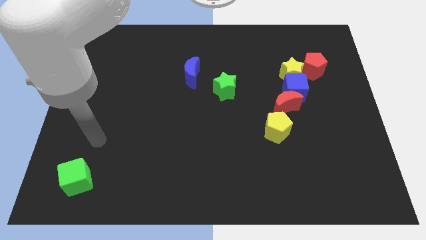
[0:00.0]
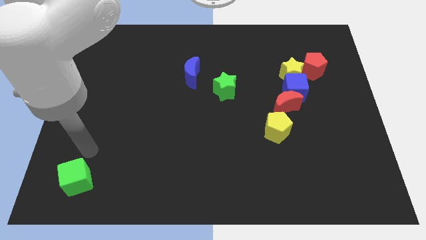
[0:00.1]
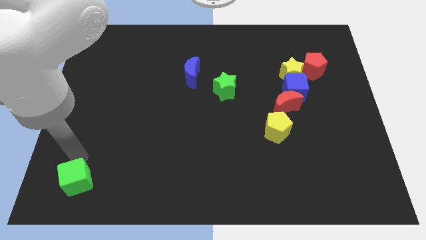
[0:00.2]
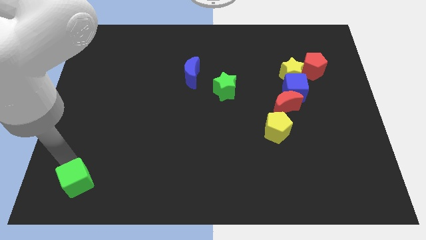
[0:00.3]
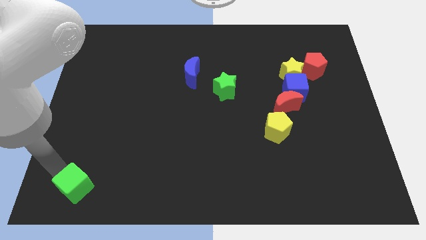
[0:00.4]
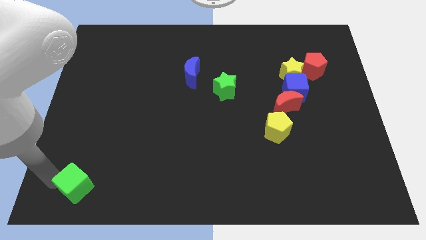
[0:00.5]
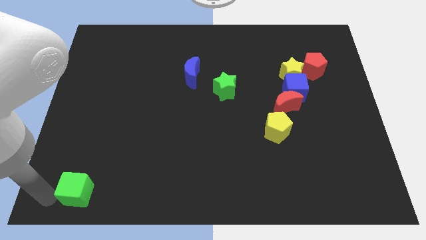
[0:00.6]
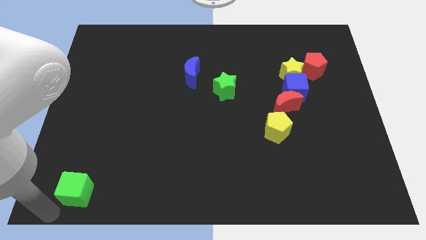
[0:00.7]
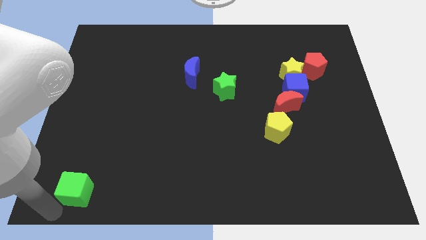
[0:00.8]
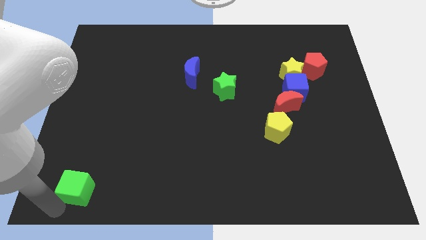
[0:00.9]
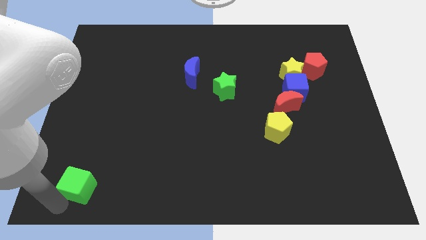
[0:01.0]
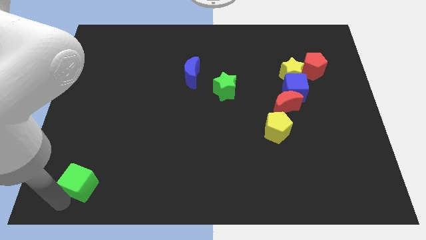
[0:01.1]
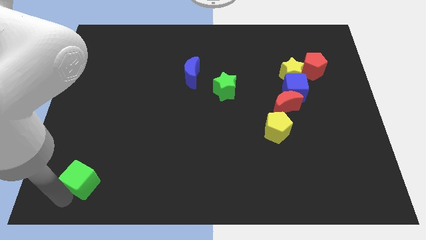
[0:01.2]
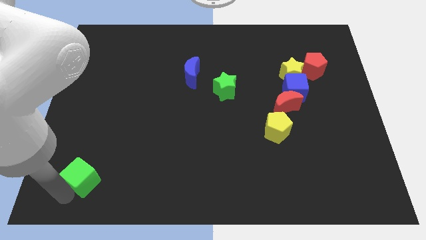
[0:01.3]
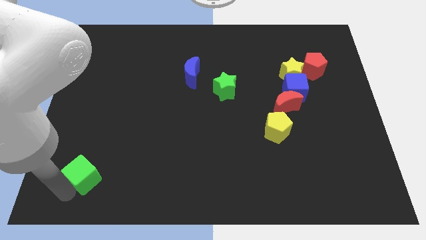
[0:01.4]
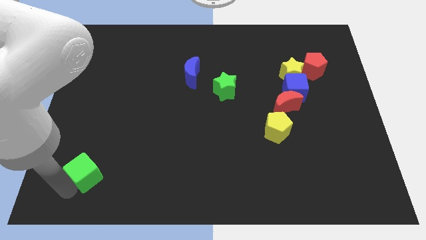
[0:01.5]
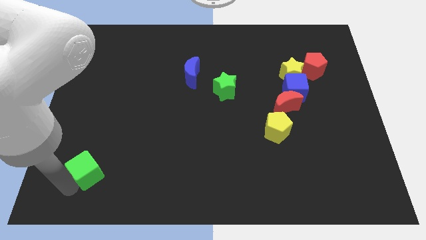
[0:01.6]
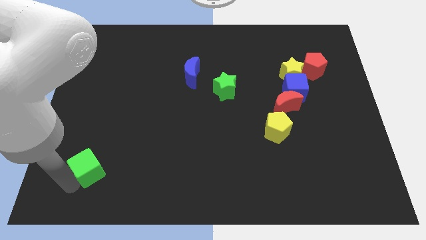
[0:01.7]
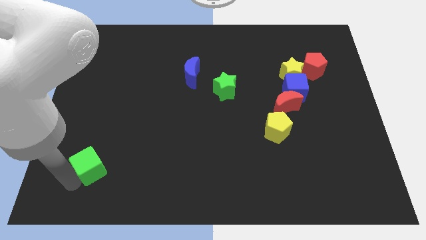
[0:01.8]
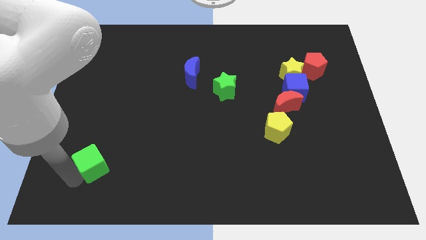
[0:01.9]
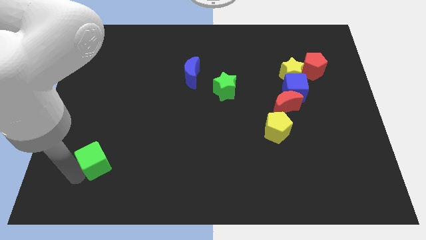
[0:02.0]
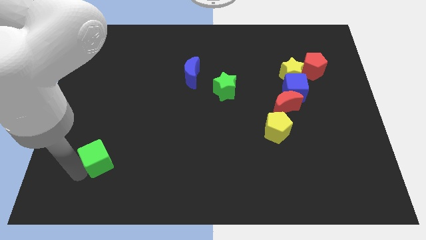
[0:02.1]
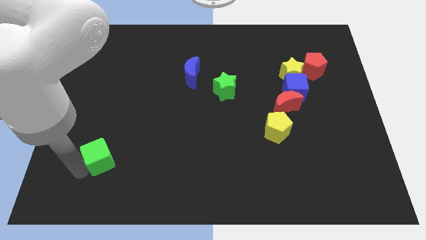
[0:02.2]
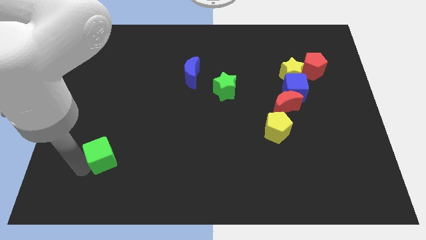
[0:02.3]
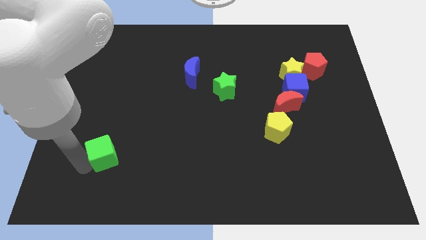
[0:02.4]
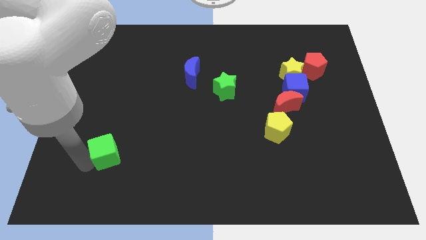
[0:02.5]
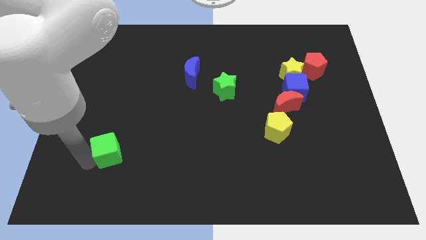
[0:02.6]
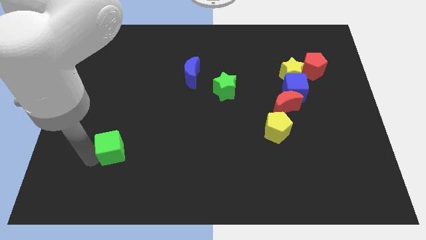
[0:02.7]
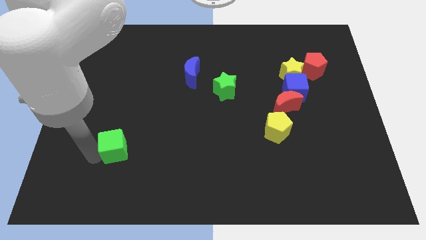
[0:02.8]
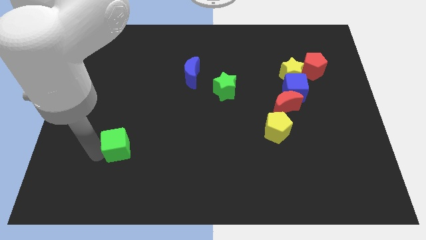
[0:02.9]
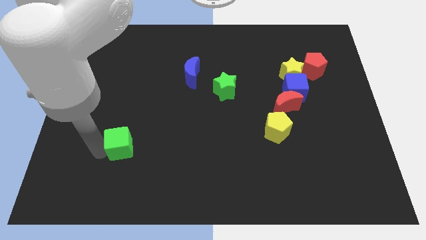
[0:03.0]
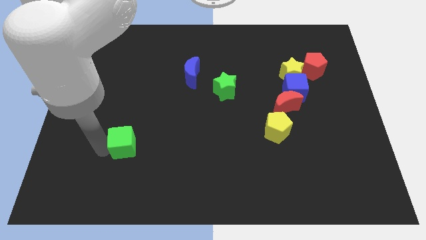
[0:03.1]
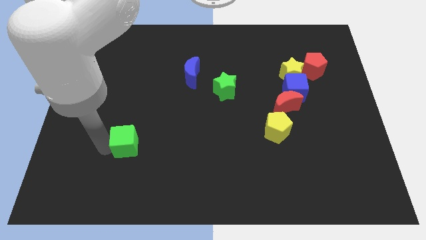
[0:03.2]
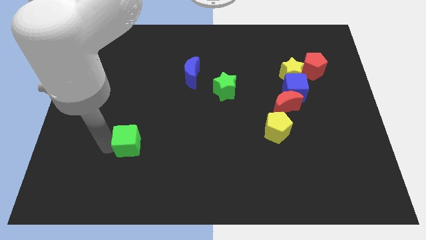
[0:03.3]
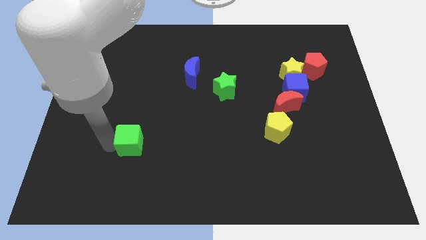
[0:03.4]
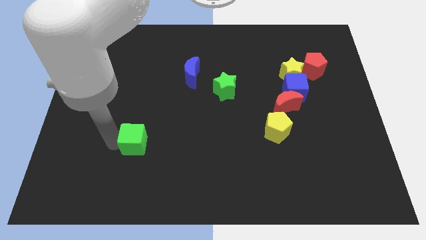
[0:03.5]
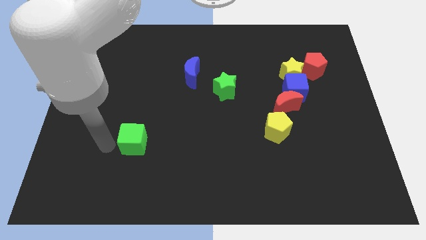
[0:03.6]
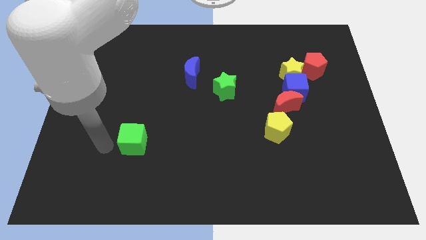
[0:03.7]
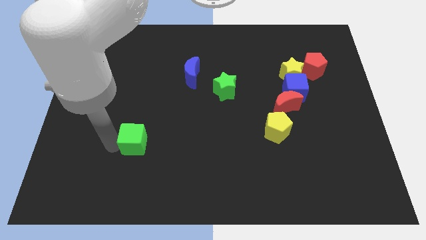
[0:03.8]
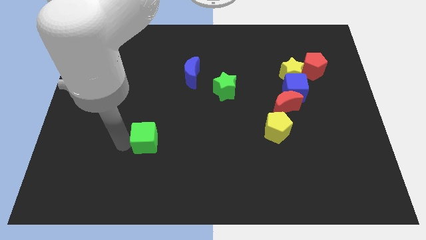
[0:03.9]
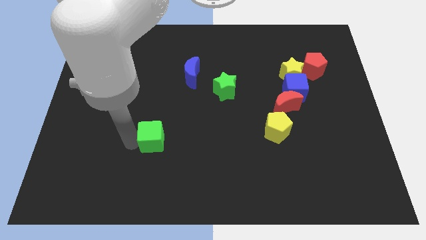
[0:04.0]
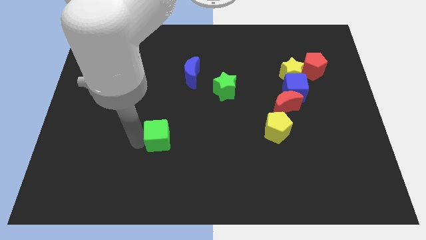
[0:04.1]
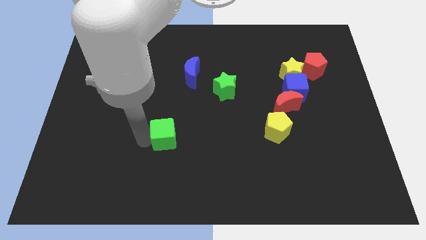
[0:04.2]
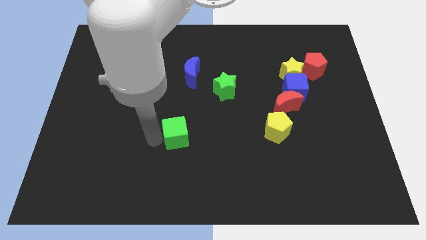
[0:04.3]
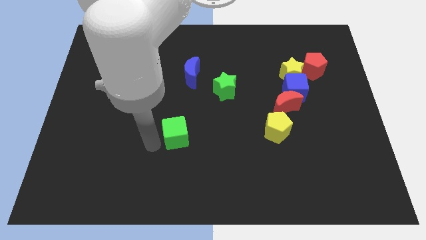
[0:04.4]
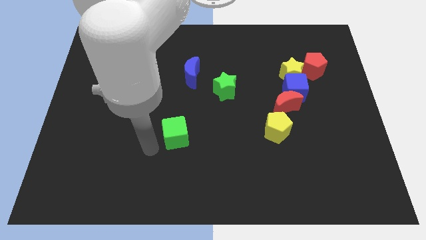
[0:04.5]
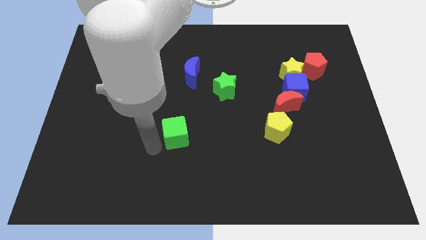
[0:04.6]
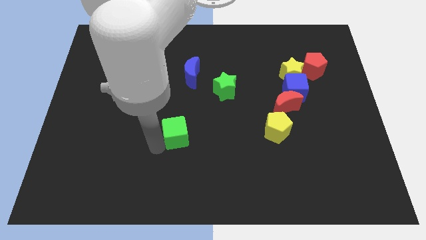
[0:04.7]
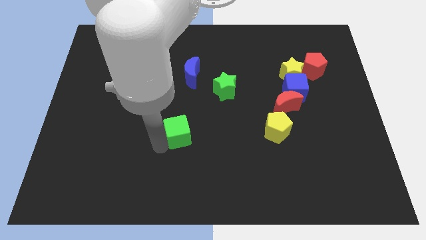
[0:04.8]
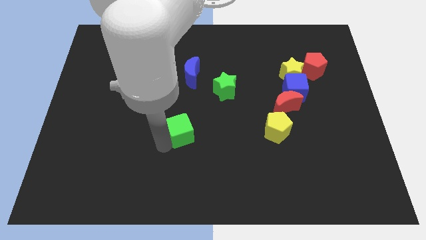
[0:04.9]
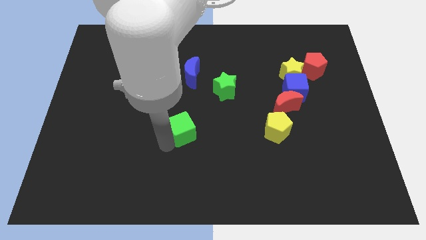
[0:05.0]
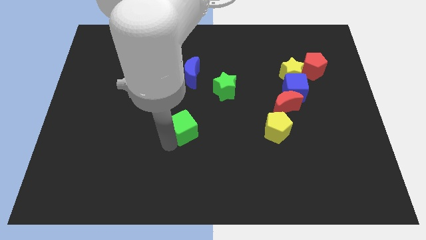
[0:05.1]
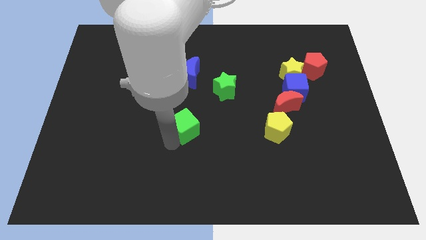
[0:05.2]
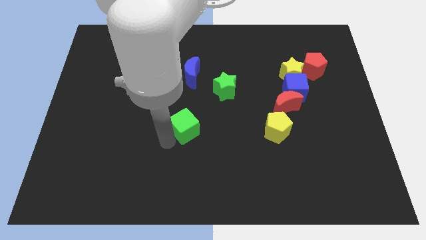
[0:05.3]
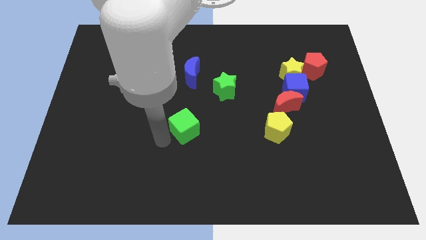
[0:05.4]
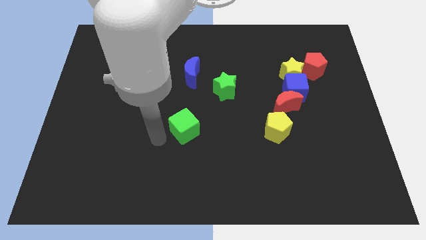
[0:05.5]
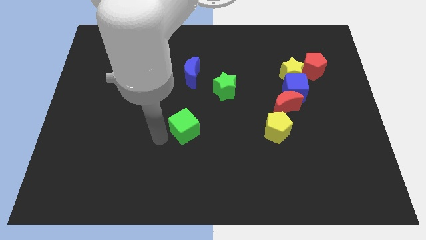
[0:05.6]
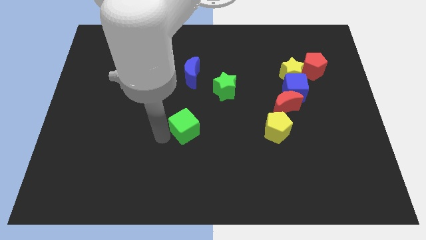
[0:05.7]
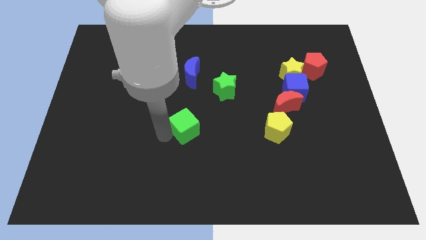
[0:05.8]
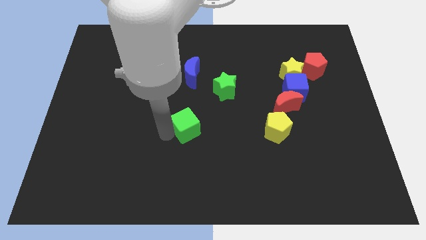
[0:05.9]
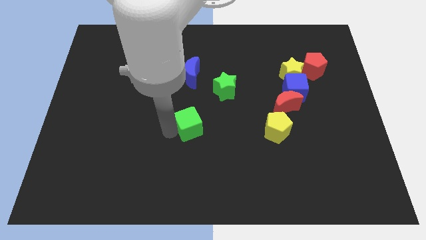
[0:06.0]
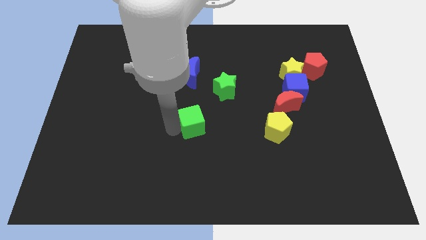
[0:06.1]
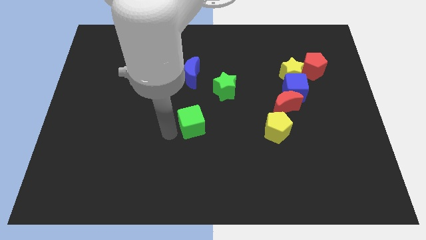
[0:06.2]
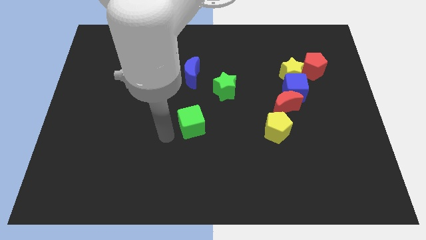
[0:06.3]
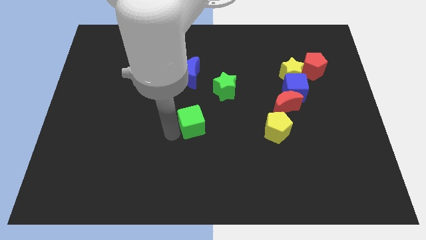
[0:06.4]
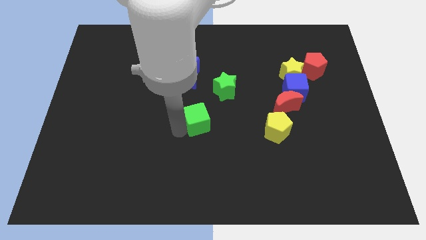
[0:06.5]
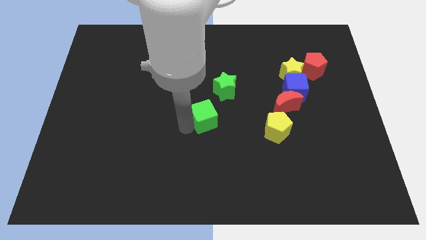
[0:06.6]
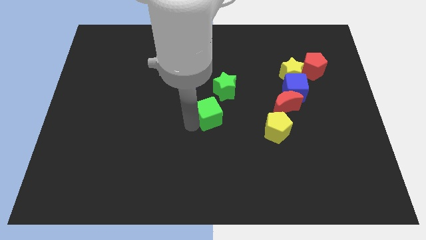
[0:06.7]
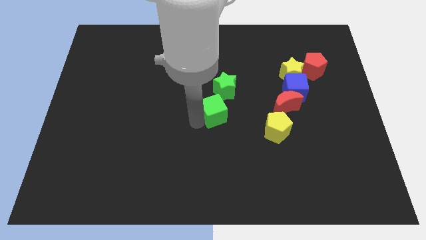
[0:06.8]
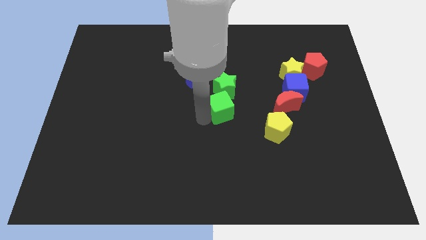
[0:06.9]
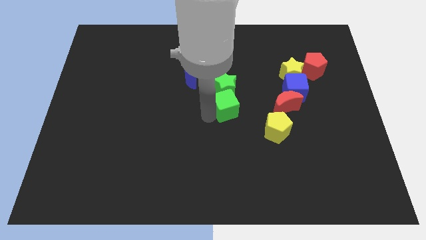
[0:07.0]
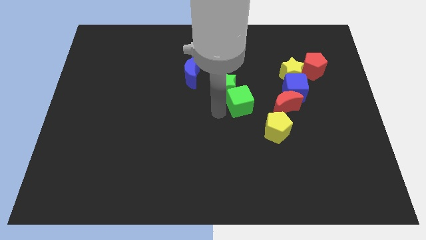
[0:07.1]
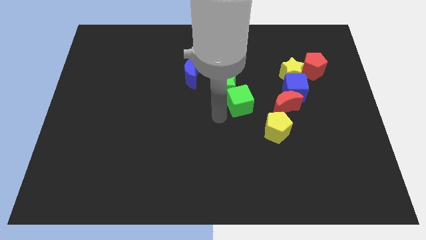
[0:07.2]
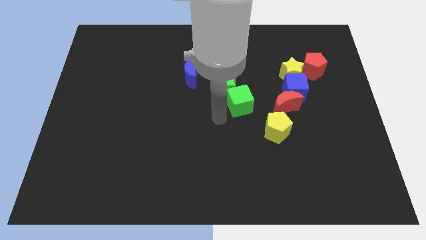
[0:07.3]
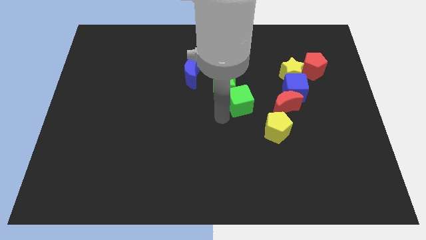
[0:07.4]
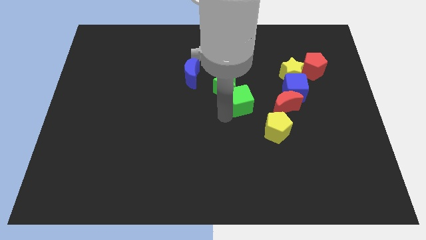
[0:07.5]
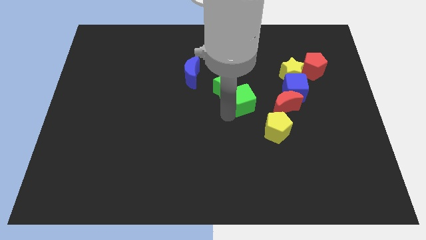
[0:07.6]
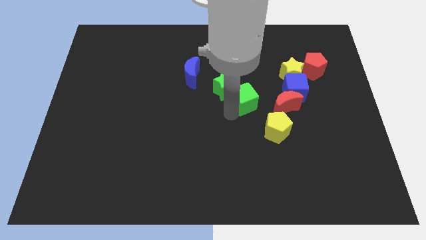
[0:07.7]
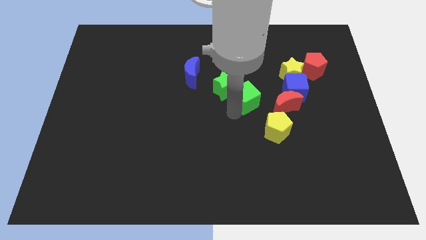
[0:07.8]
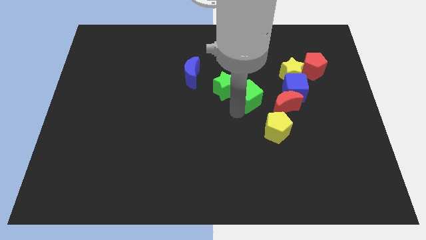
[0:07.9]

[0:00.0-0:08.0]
put the green cube to the top left of the red moon
